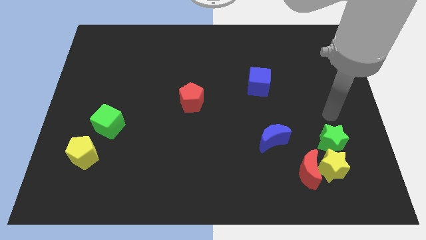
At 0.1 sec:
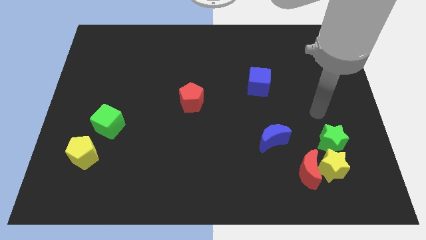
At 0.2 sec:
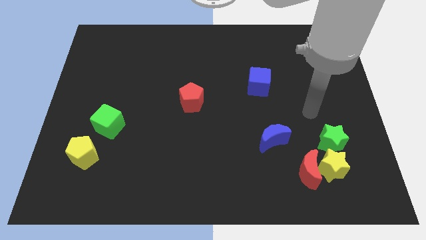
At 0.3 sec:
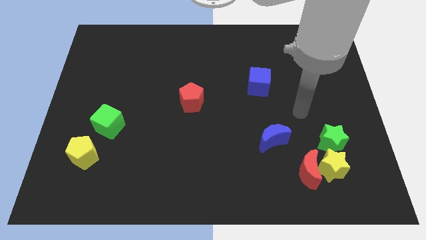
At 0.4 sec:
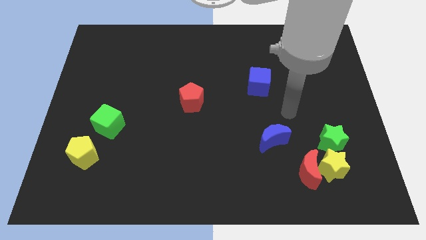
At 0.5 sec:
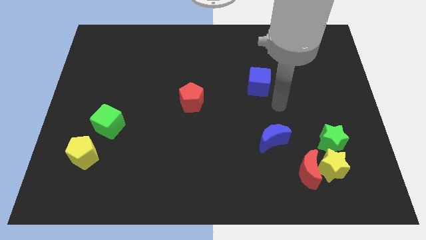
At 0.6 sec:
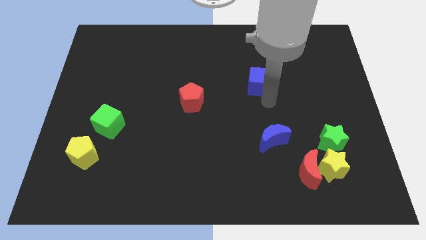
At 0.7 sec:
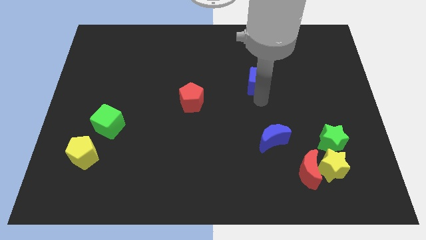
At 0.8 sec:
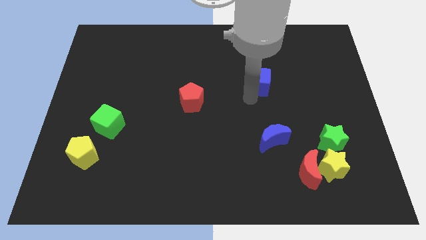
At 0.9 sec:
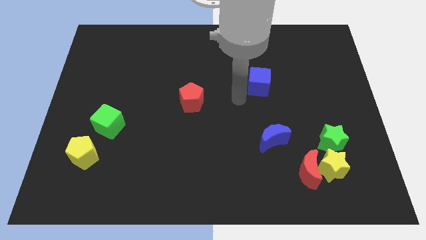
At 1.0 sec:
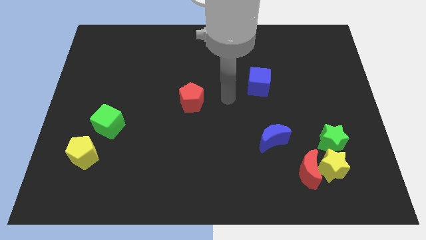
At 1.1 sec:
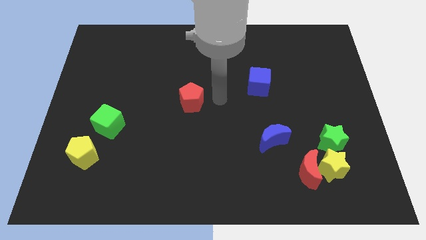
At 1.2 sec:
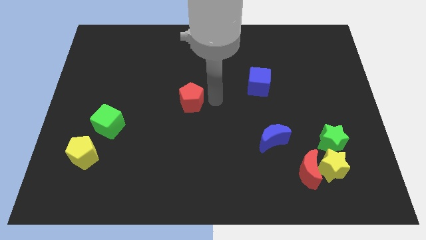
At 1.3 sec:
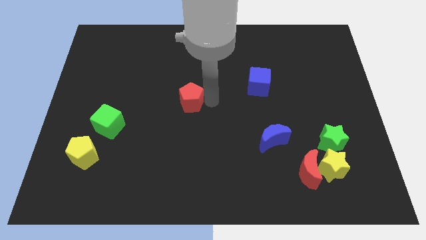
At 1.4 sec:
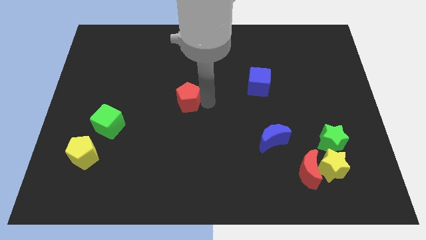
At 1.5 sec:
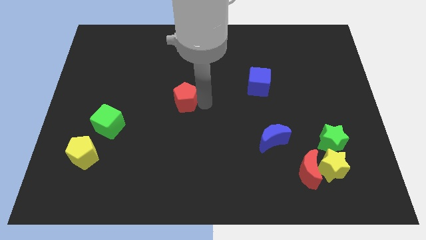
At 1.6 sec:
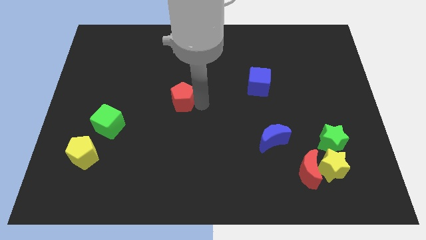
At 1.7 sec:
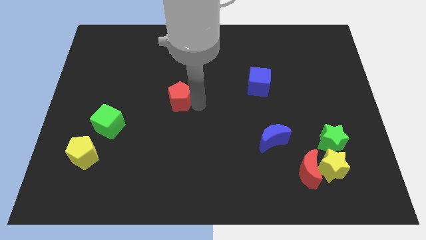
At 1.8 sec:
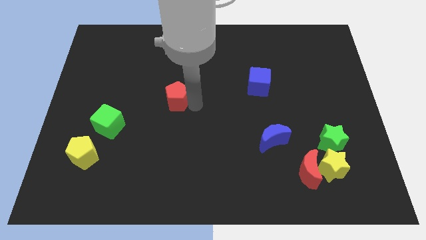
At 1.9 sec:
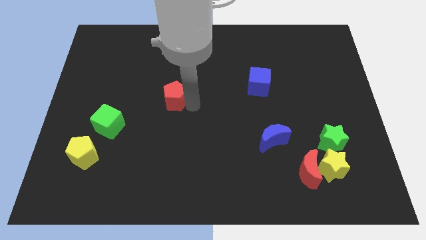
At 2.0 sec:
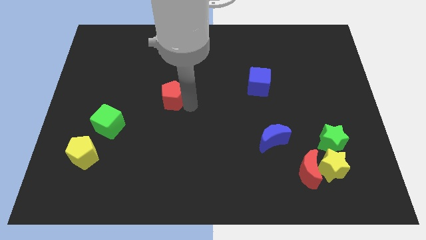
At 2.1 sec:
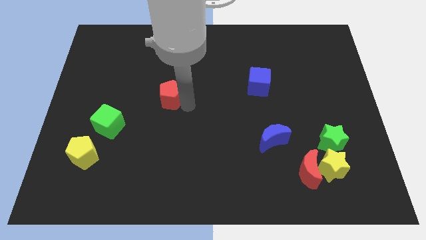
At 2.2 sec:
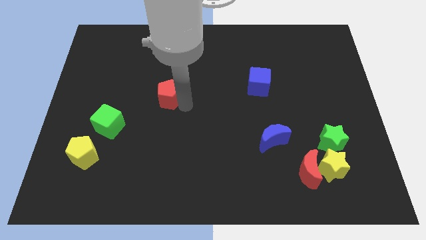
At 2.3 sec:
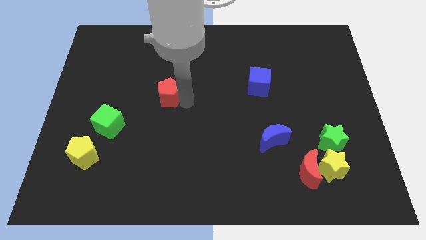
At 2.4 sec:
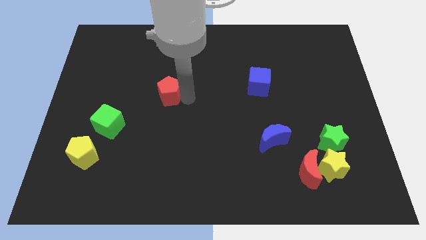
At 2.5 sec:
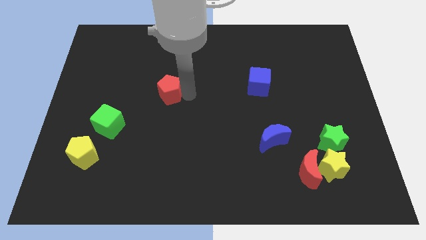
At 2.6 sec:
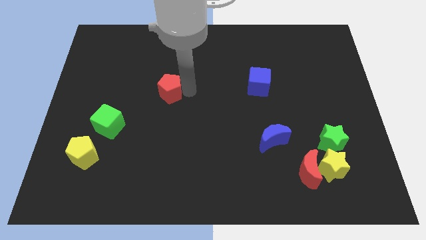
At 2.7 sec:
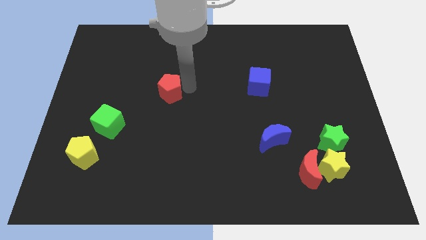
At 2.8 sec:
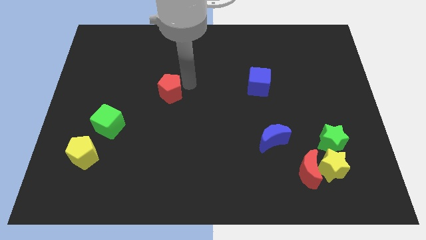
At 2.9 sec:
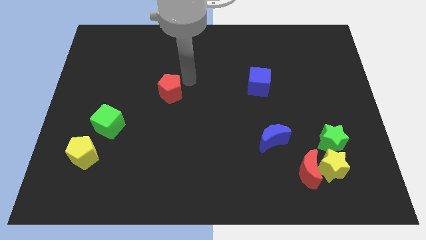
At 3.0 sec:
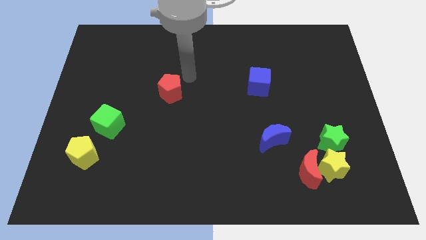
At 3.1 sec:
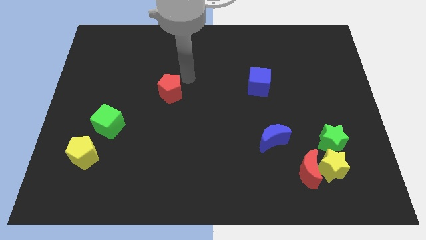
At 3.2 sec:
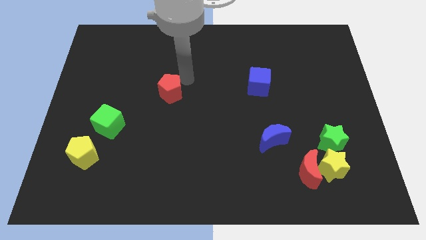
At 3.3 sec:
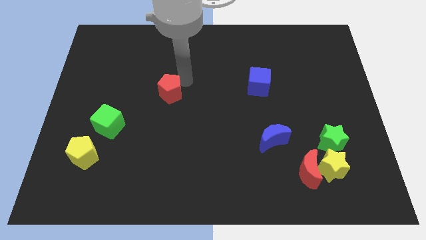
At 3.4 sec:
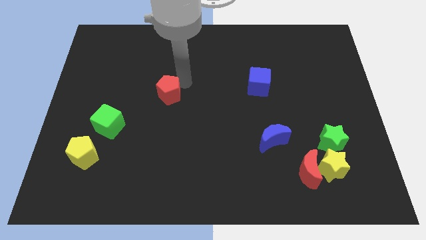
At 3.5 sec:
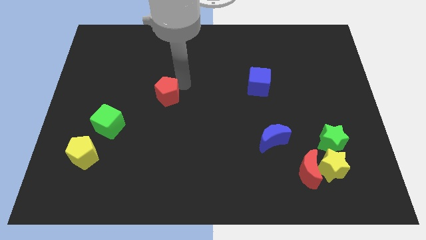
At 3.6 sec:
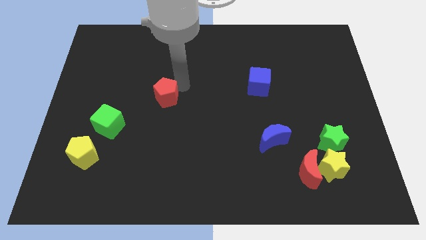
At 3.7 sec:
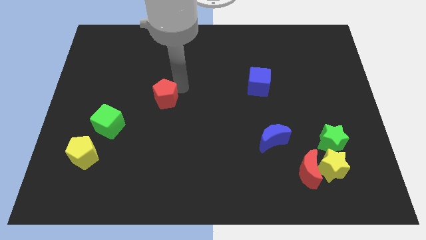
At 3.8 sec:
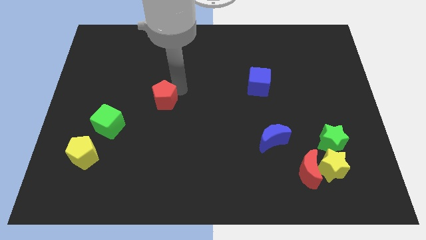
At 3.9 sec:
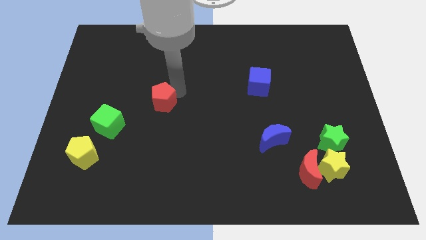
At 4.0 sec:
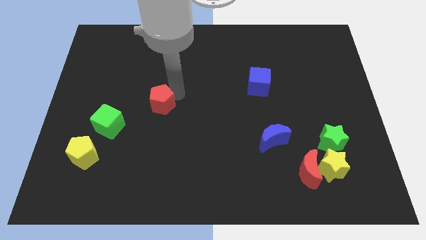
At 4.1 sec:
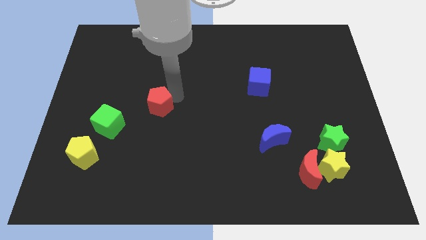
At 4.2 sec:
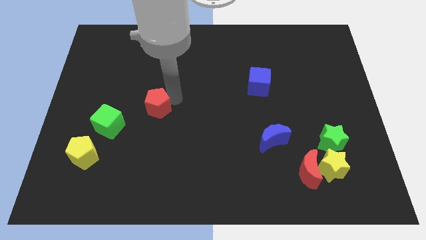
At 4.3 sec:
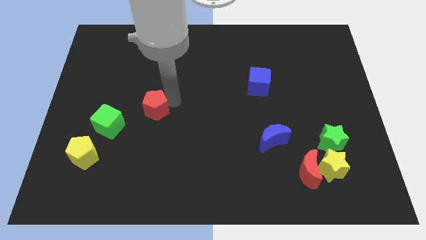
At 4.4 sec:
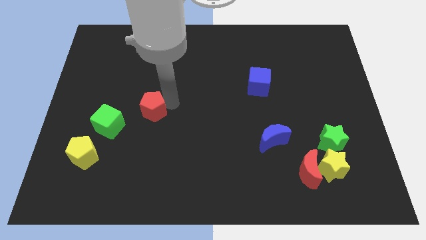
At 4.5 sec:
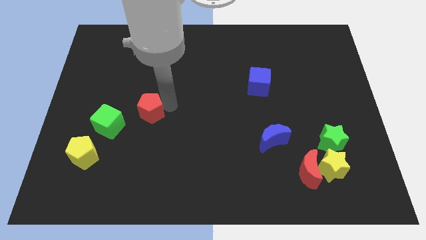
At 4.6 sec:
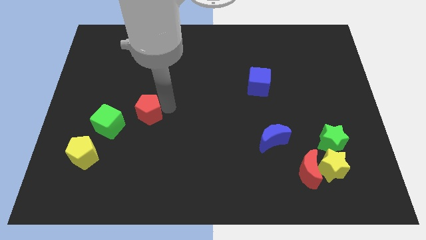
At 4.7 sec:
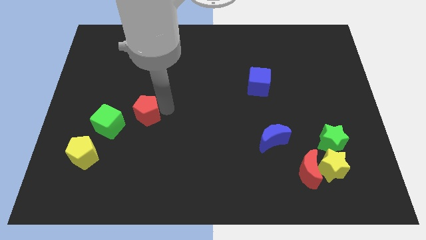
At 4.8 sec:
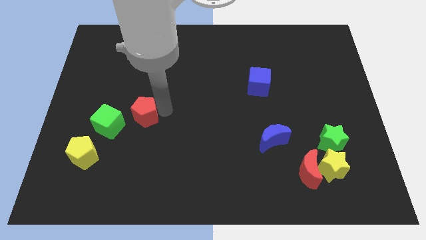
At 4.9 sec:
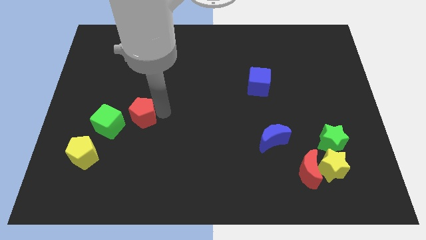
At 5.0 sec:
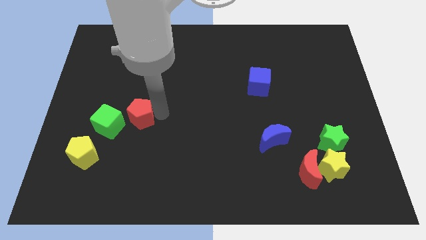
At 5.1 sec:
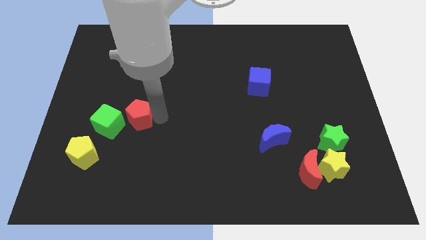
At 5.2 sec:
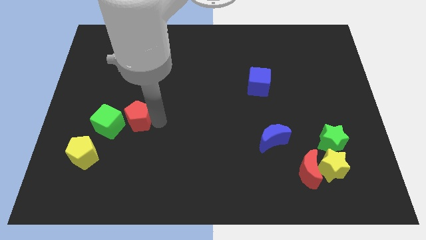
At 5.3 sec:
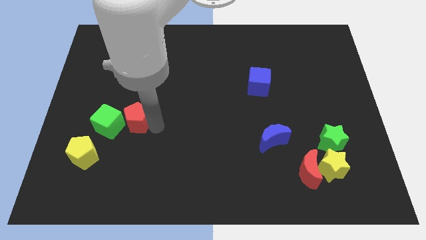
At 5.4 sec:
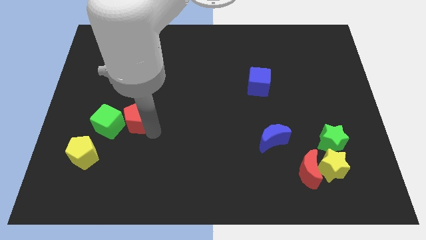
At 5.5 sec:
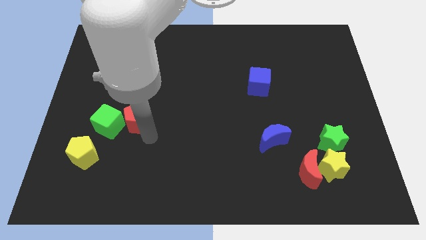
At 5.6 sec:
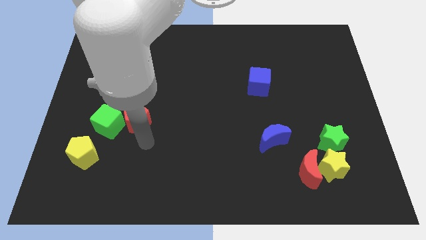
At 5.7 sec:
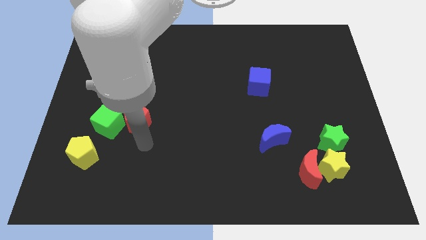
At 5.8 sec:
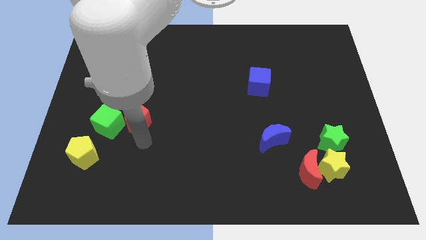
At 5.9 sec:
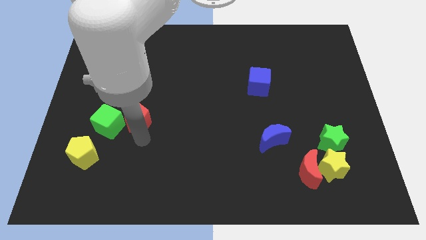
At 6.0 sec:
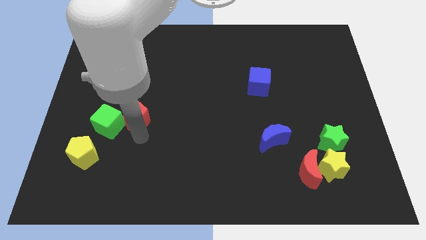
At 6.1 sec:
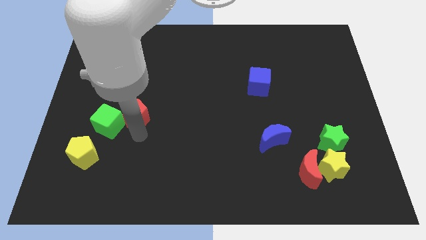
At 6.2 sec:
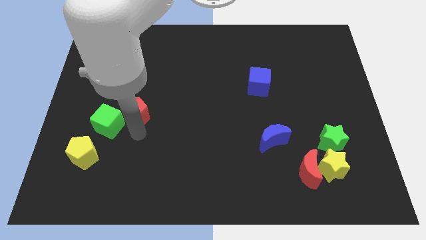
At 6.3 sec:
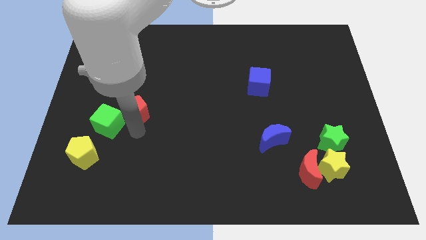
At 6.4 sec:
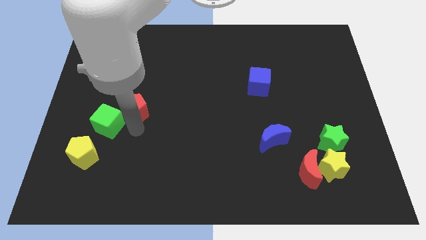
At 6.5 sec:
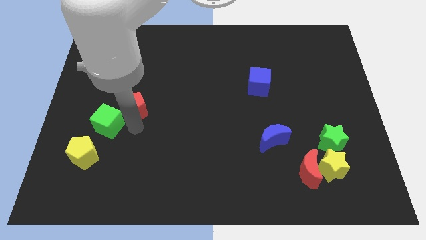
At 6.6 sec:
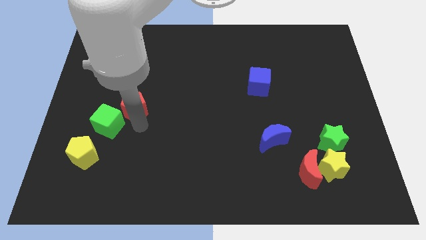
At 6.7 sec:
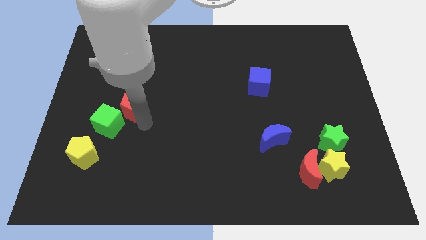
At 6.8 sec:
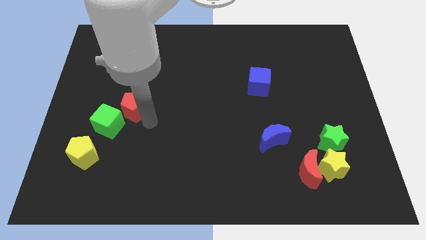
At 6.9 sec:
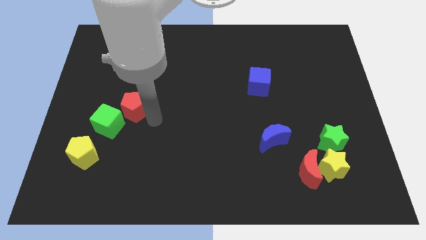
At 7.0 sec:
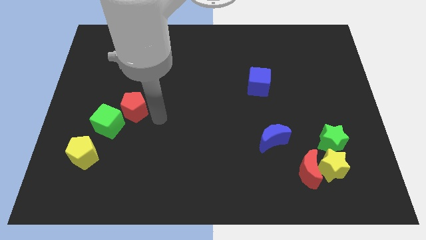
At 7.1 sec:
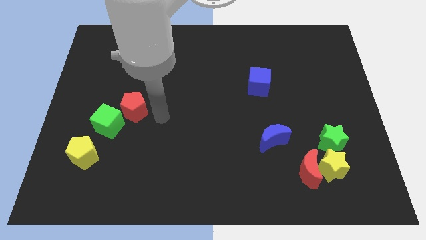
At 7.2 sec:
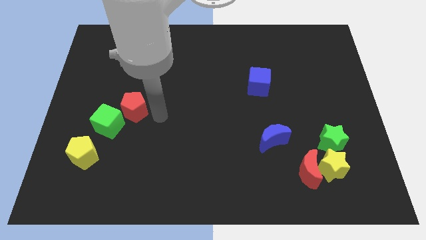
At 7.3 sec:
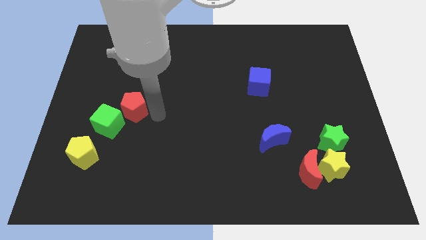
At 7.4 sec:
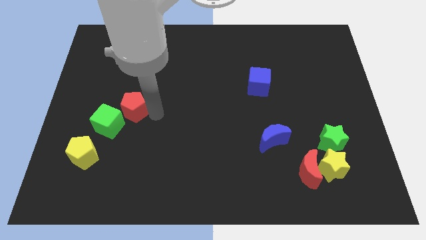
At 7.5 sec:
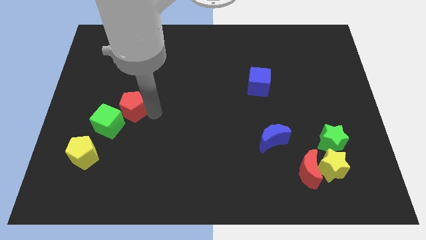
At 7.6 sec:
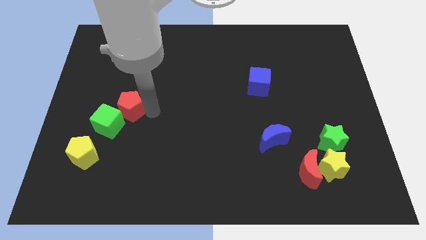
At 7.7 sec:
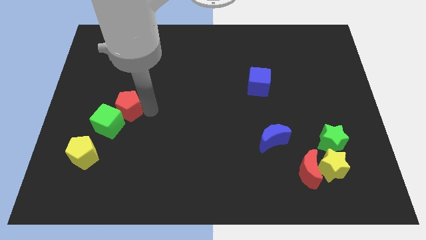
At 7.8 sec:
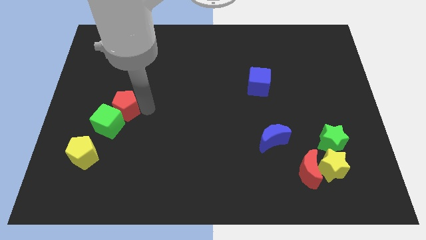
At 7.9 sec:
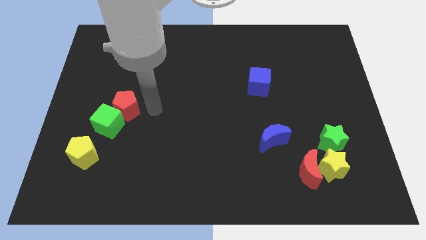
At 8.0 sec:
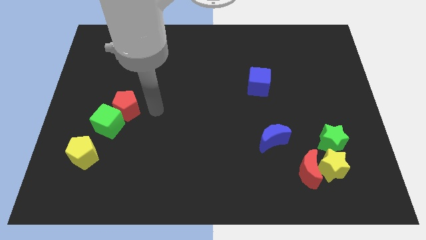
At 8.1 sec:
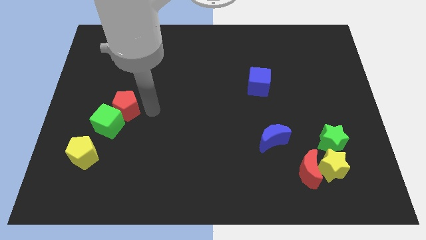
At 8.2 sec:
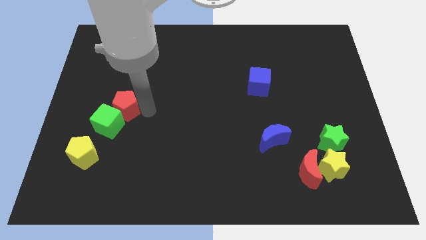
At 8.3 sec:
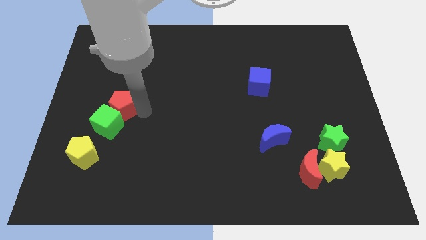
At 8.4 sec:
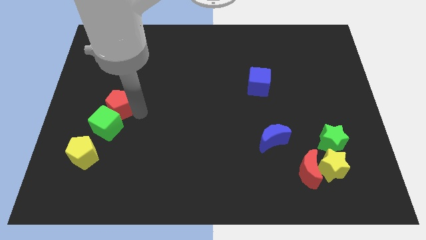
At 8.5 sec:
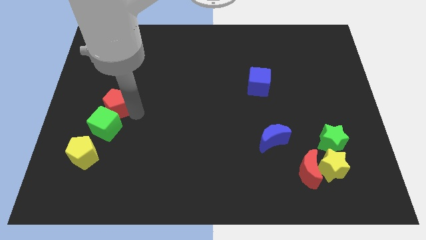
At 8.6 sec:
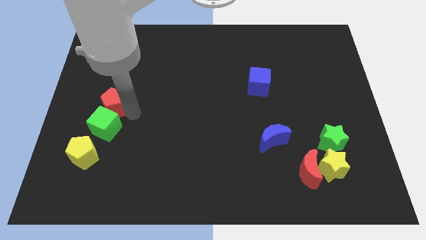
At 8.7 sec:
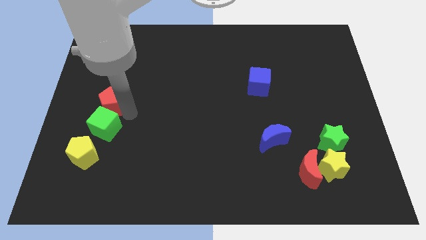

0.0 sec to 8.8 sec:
push the red pentagon diagonally up and to the left of the green cube
